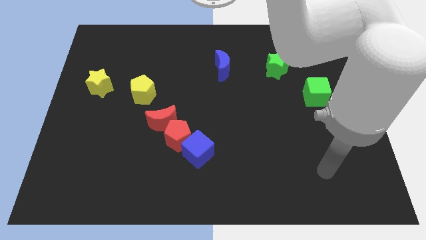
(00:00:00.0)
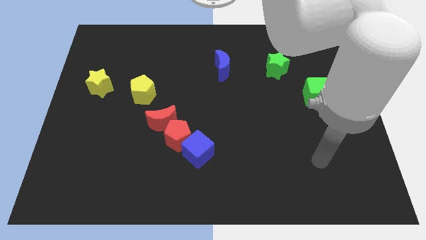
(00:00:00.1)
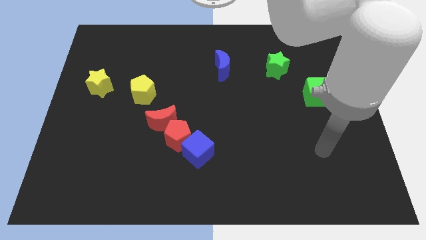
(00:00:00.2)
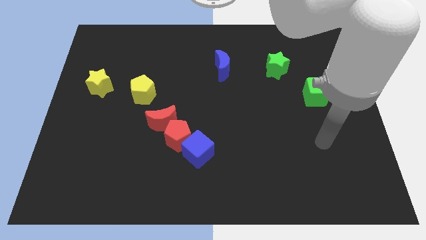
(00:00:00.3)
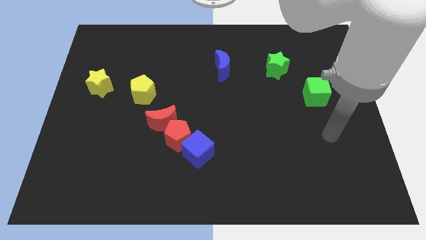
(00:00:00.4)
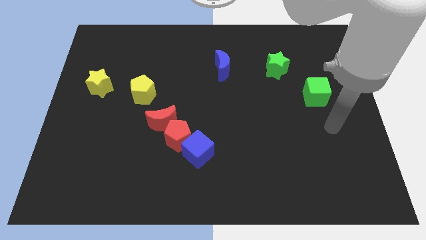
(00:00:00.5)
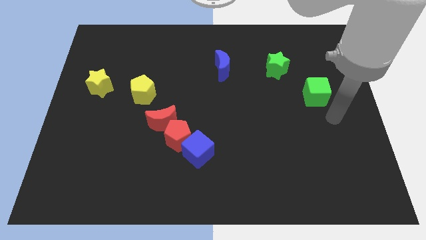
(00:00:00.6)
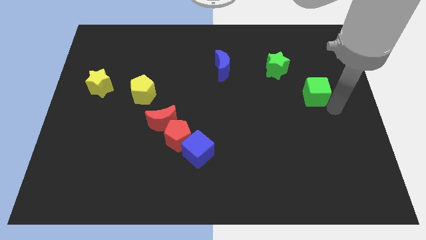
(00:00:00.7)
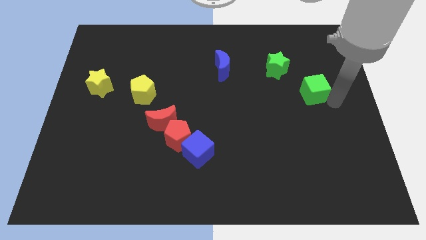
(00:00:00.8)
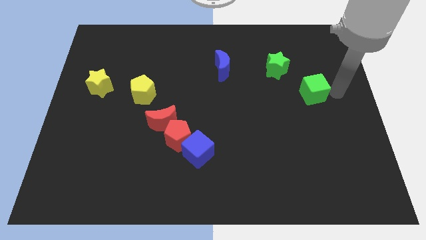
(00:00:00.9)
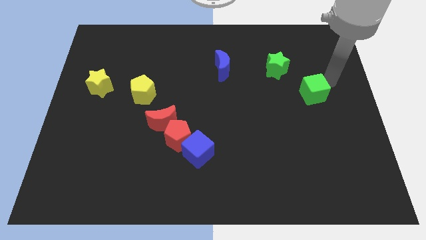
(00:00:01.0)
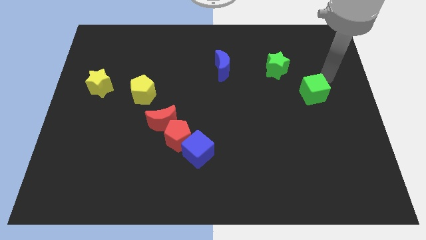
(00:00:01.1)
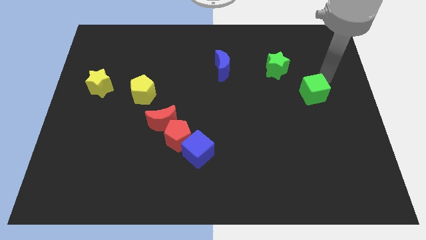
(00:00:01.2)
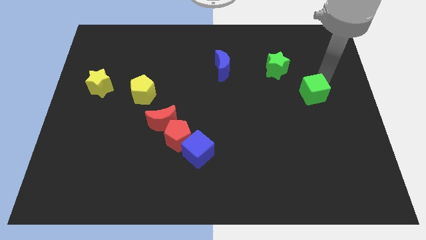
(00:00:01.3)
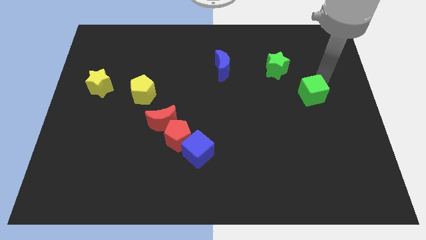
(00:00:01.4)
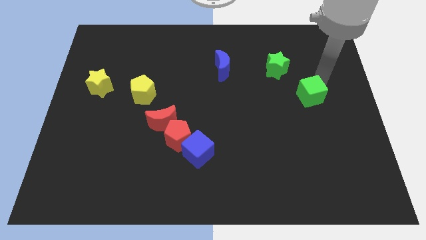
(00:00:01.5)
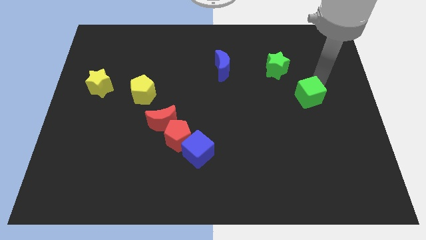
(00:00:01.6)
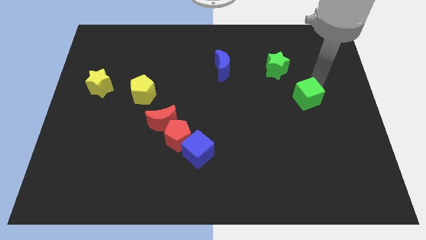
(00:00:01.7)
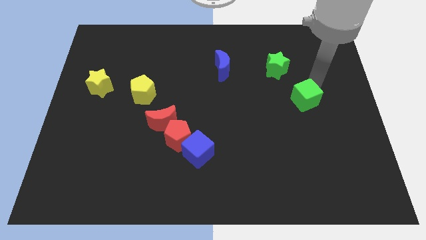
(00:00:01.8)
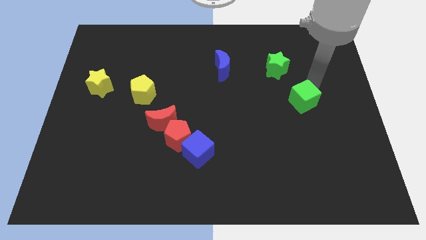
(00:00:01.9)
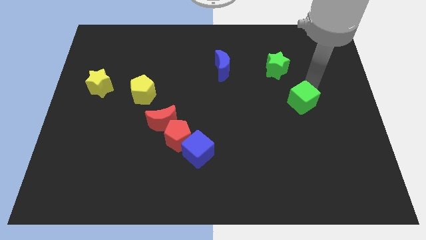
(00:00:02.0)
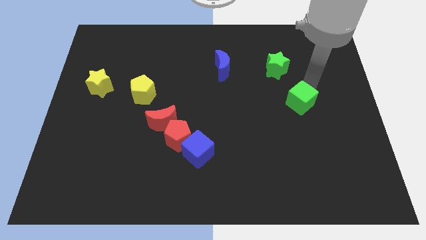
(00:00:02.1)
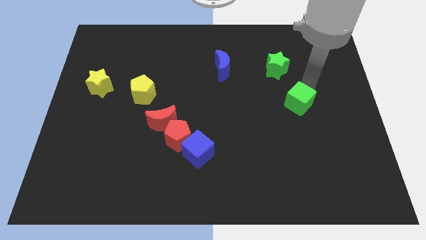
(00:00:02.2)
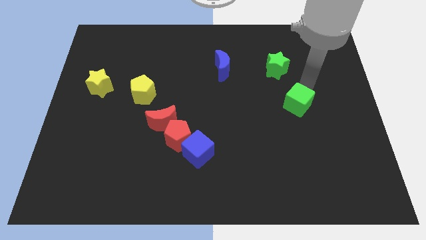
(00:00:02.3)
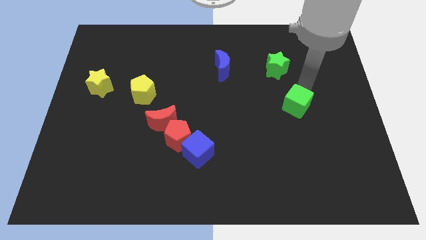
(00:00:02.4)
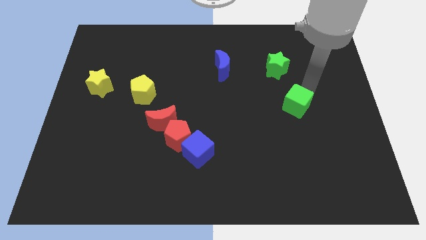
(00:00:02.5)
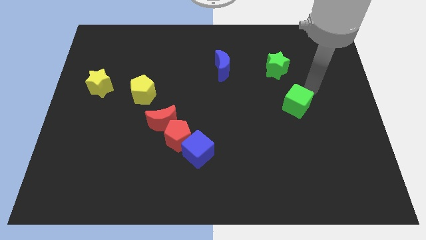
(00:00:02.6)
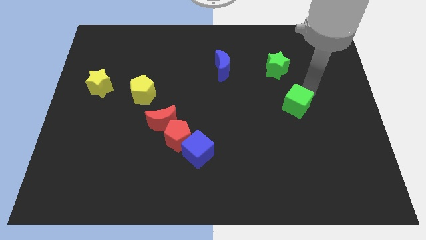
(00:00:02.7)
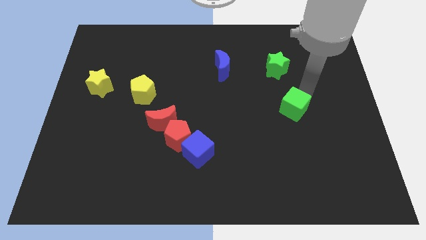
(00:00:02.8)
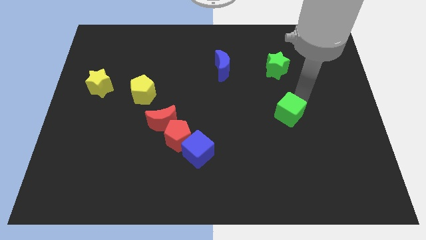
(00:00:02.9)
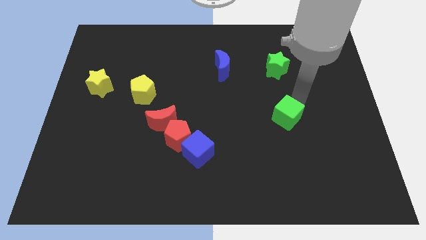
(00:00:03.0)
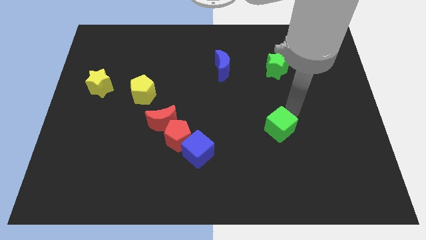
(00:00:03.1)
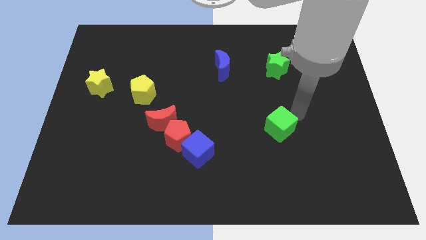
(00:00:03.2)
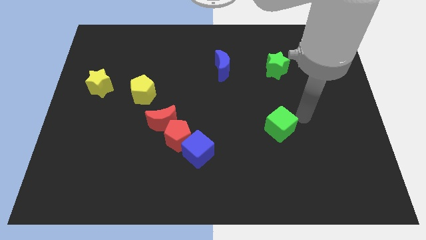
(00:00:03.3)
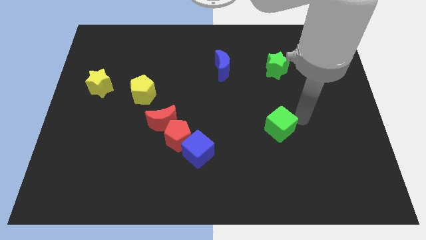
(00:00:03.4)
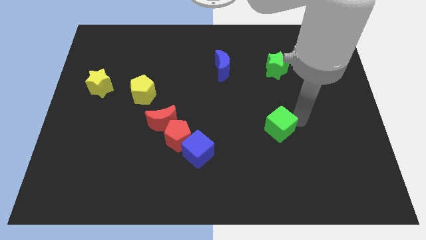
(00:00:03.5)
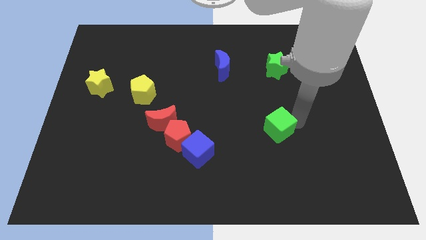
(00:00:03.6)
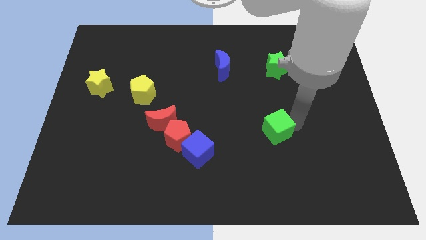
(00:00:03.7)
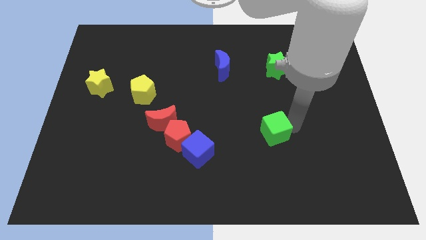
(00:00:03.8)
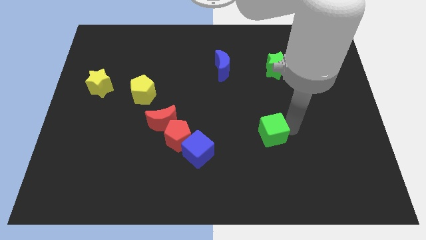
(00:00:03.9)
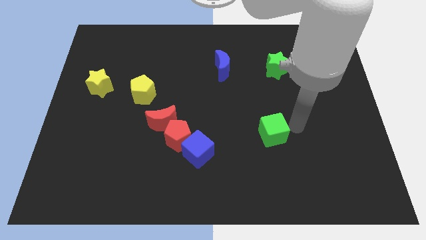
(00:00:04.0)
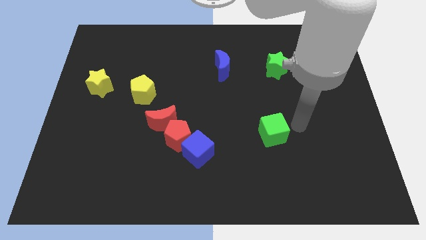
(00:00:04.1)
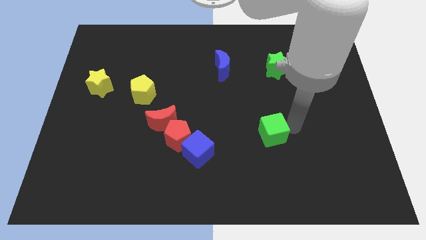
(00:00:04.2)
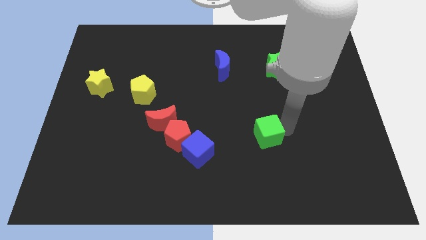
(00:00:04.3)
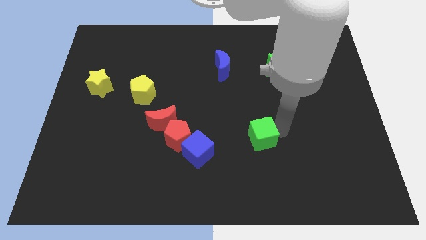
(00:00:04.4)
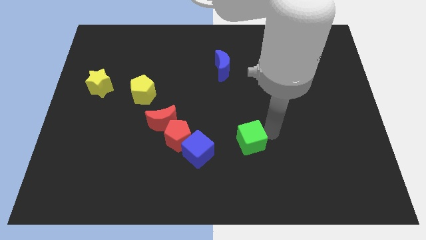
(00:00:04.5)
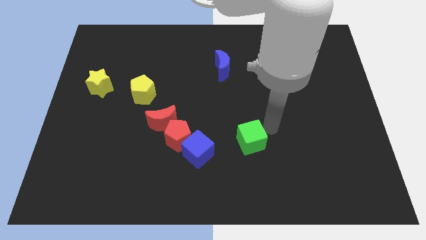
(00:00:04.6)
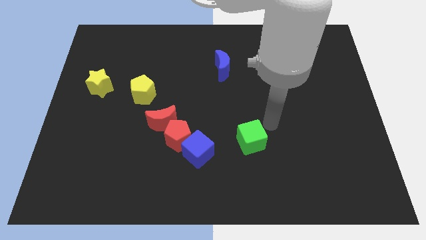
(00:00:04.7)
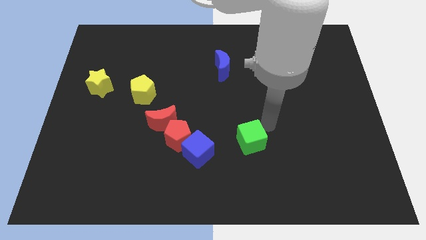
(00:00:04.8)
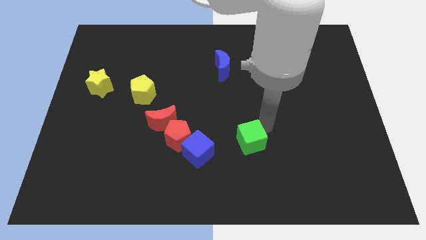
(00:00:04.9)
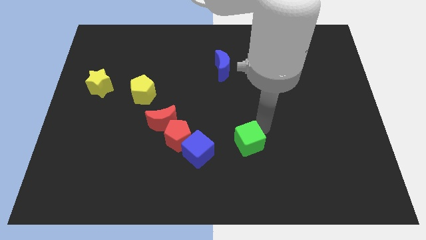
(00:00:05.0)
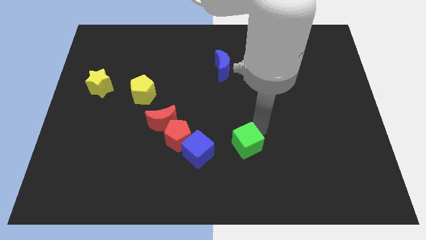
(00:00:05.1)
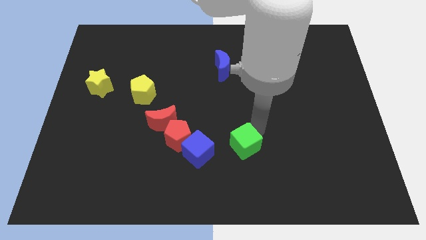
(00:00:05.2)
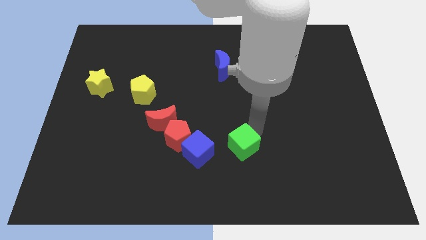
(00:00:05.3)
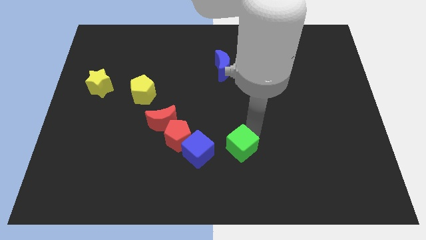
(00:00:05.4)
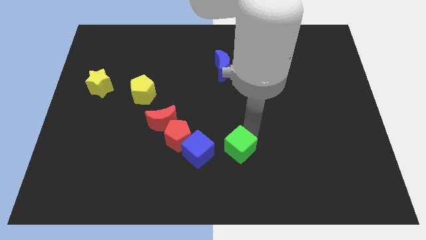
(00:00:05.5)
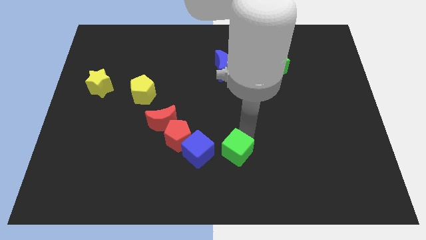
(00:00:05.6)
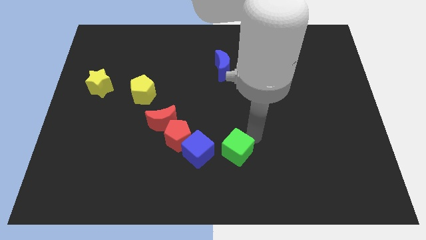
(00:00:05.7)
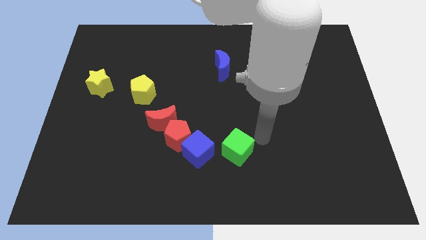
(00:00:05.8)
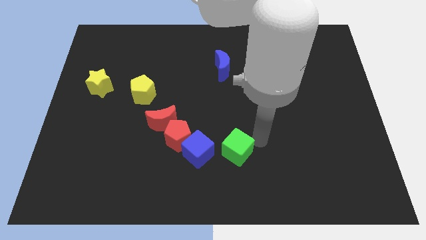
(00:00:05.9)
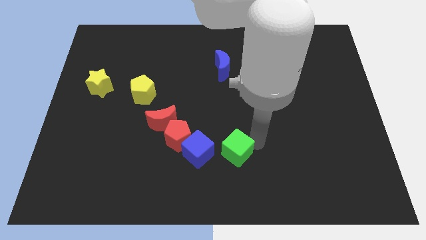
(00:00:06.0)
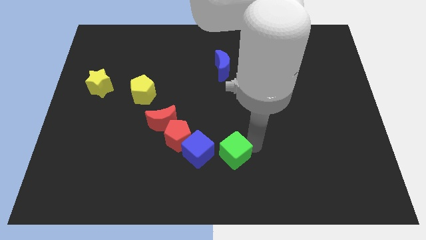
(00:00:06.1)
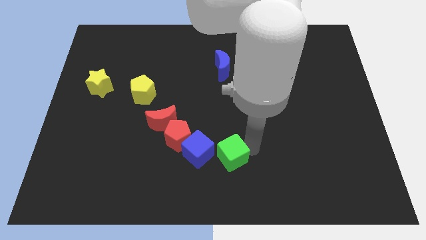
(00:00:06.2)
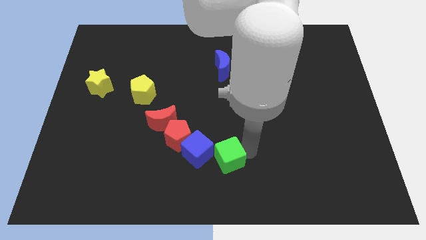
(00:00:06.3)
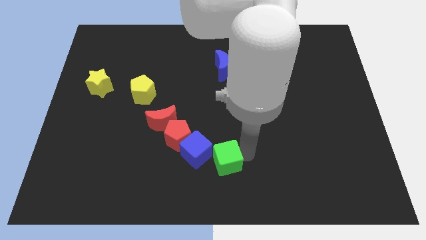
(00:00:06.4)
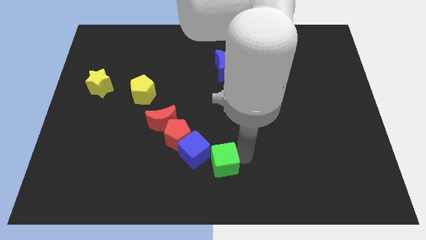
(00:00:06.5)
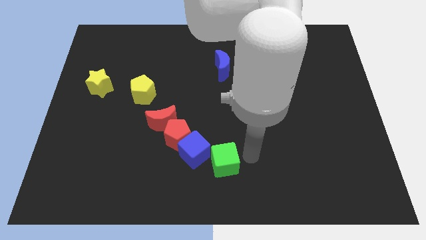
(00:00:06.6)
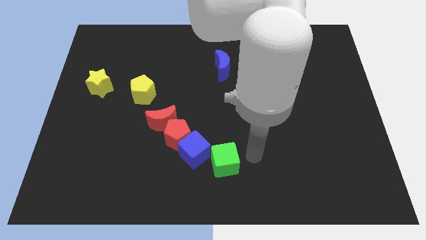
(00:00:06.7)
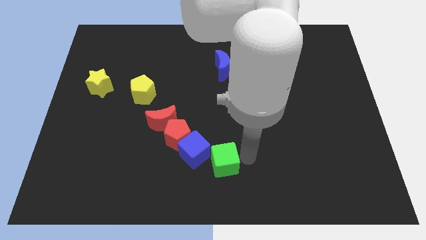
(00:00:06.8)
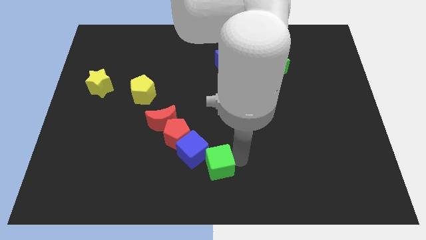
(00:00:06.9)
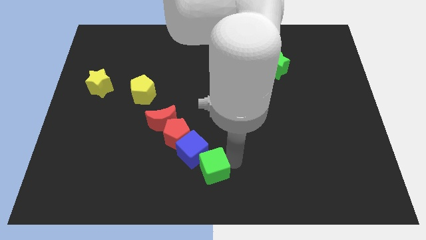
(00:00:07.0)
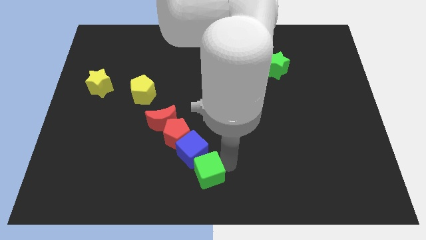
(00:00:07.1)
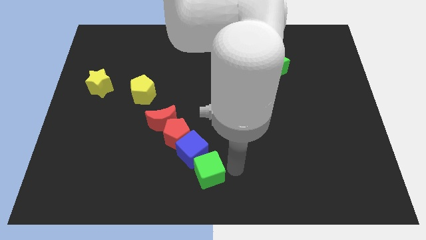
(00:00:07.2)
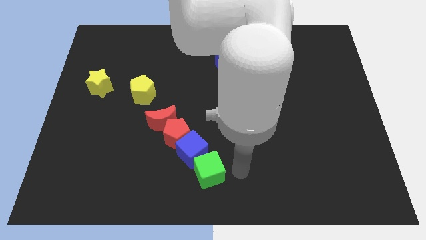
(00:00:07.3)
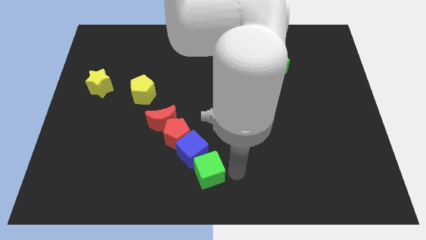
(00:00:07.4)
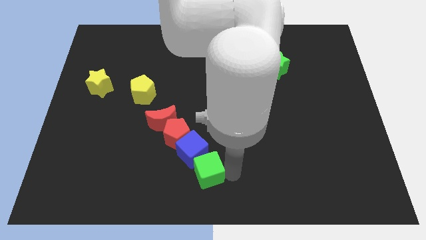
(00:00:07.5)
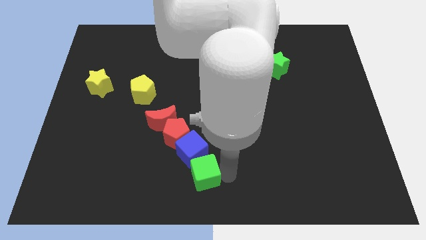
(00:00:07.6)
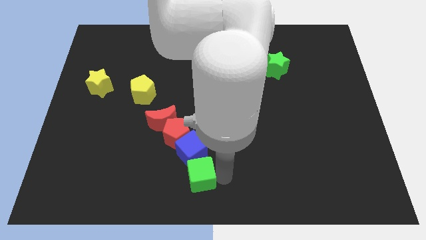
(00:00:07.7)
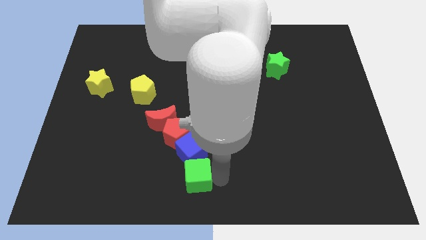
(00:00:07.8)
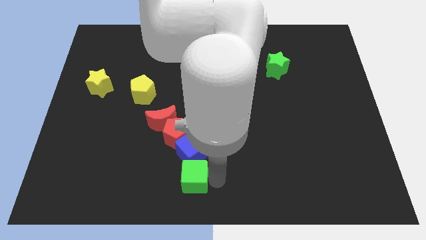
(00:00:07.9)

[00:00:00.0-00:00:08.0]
push the green cube diagonally down and to the left of the blue cube
